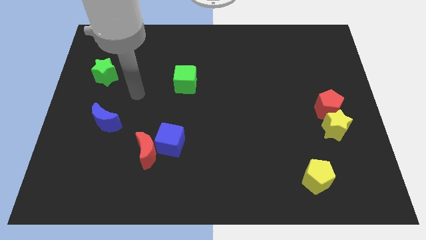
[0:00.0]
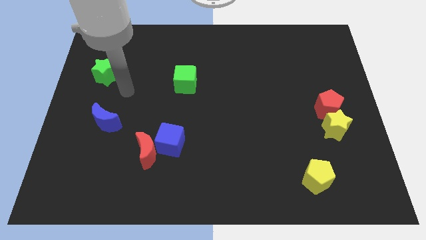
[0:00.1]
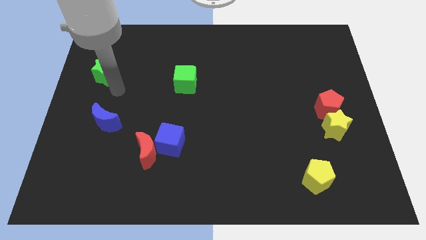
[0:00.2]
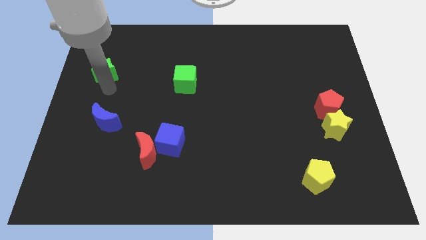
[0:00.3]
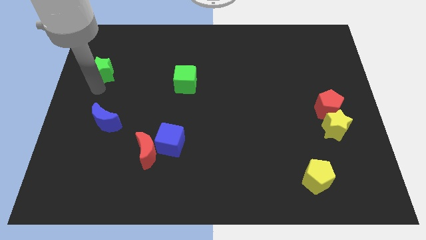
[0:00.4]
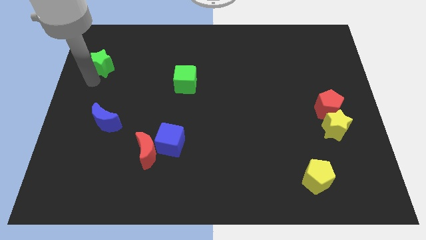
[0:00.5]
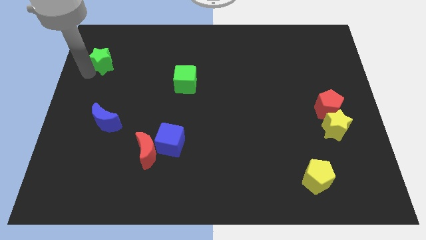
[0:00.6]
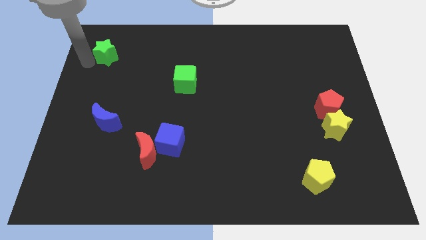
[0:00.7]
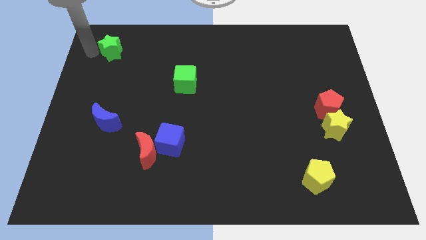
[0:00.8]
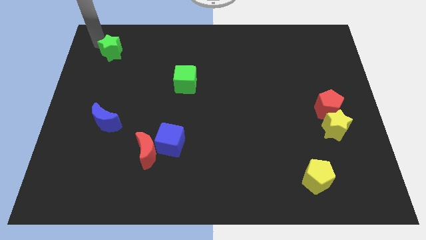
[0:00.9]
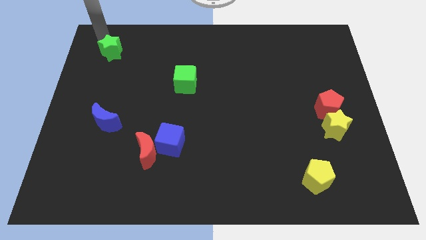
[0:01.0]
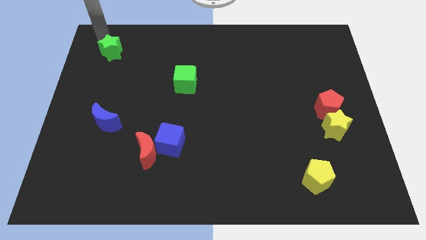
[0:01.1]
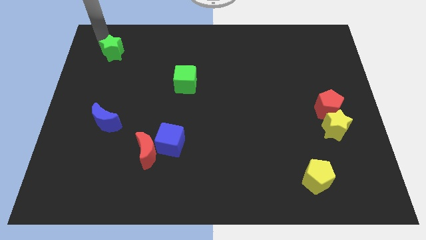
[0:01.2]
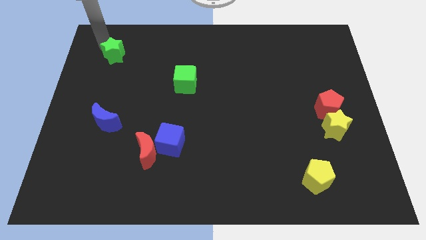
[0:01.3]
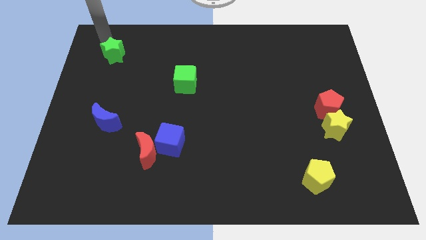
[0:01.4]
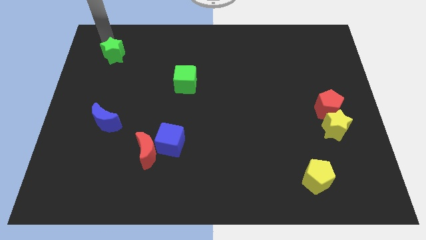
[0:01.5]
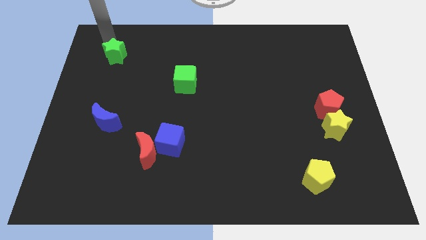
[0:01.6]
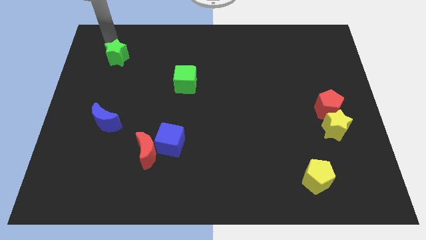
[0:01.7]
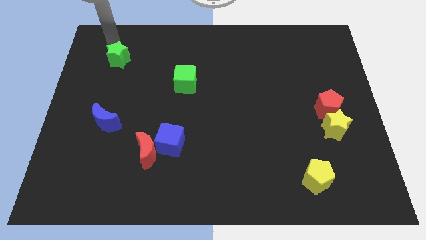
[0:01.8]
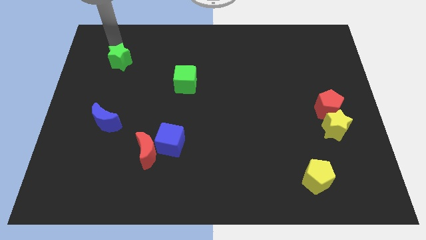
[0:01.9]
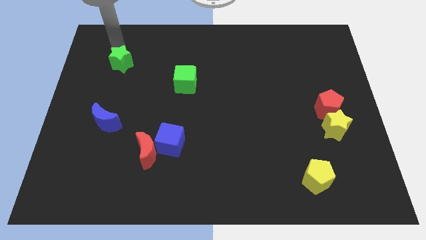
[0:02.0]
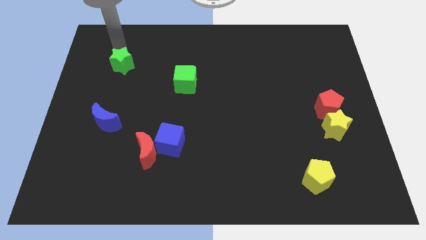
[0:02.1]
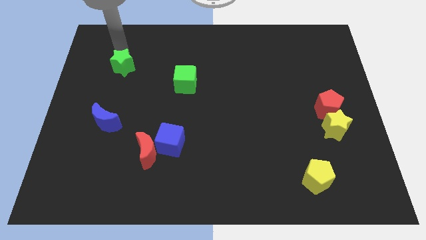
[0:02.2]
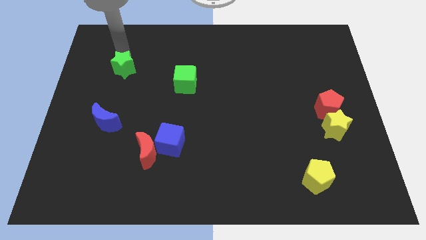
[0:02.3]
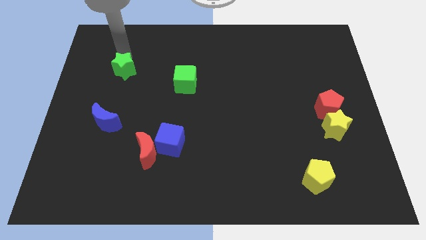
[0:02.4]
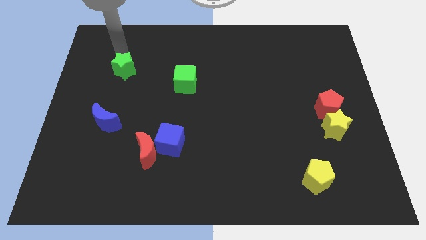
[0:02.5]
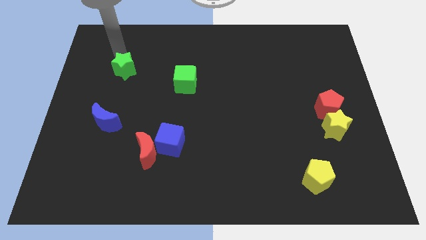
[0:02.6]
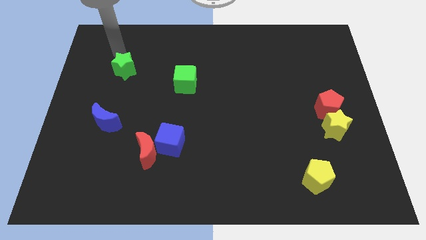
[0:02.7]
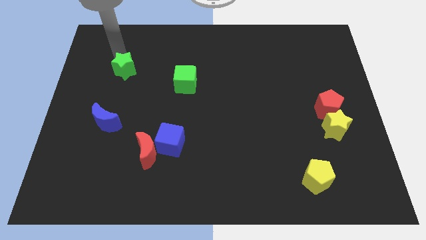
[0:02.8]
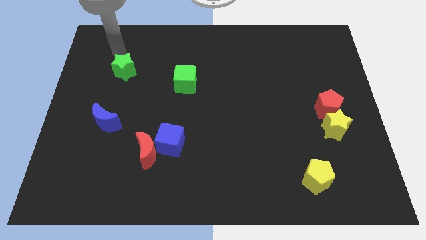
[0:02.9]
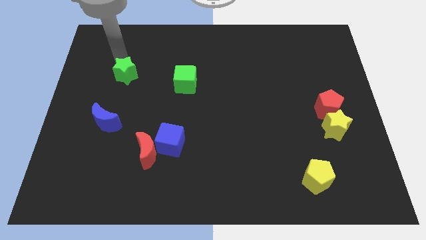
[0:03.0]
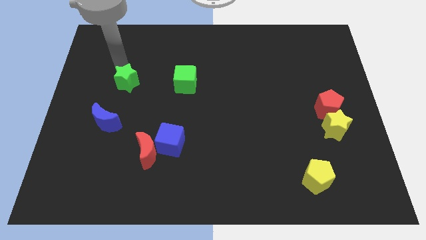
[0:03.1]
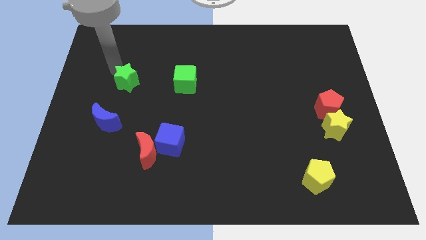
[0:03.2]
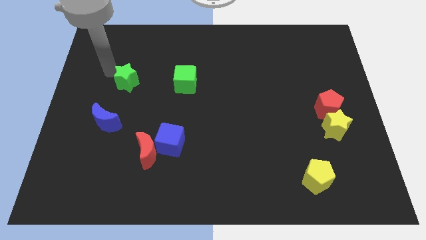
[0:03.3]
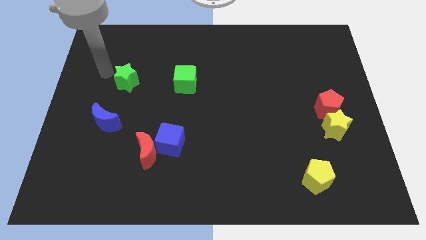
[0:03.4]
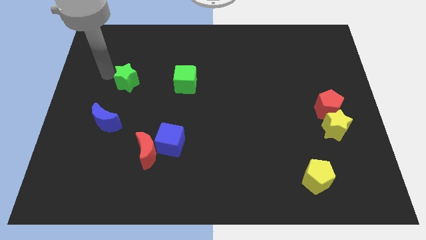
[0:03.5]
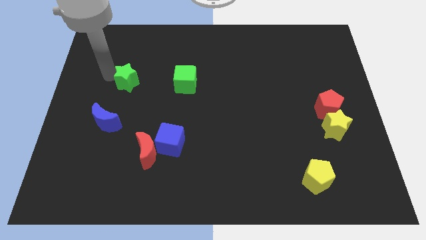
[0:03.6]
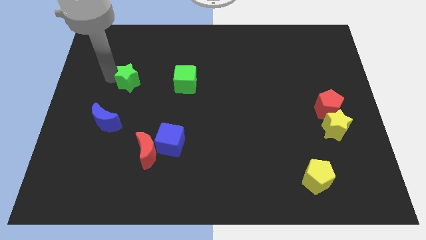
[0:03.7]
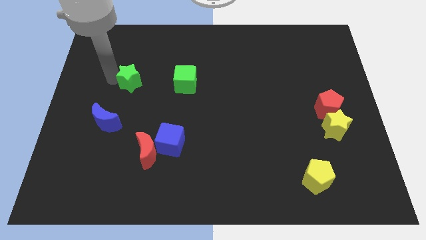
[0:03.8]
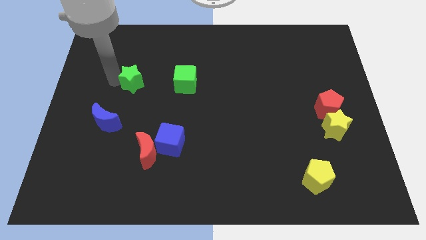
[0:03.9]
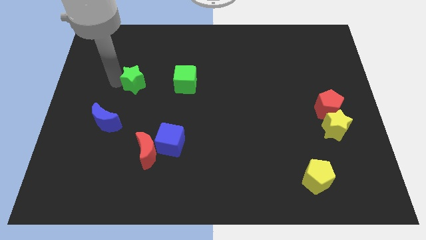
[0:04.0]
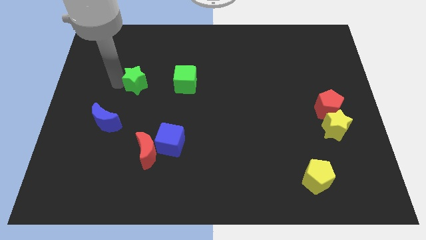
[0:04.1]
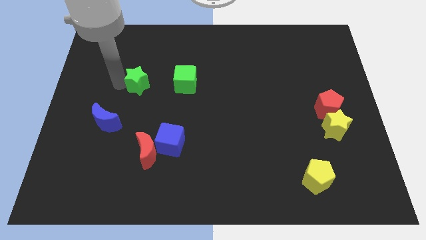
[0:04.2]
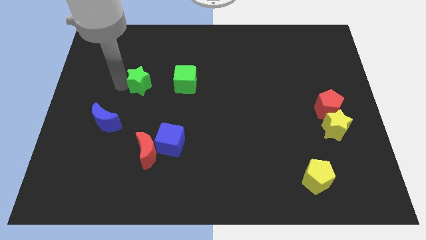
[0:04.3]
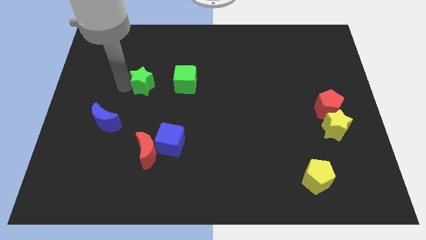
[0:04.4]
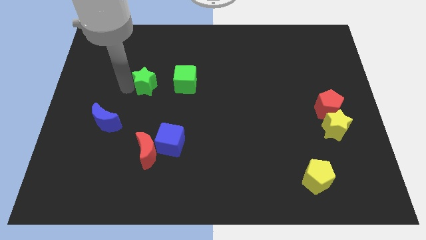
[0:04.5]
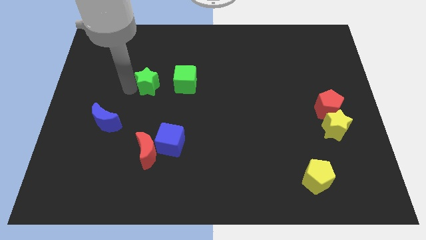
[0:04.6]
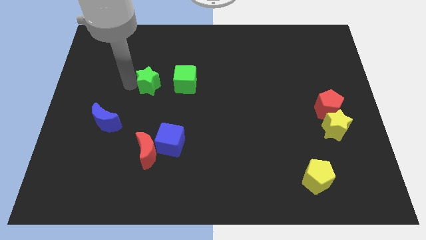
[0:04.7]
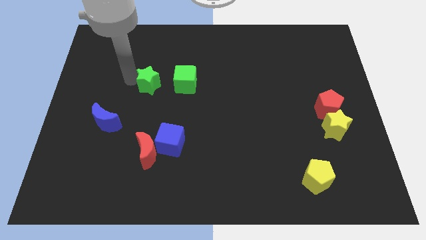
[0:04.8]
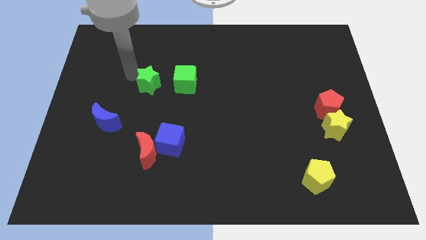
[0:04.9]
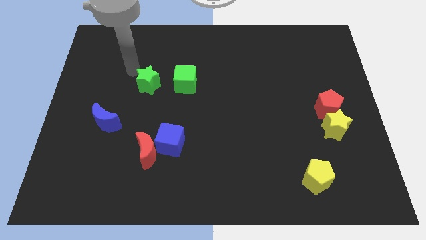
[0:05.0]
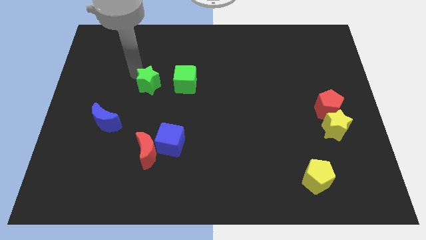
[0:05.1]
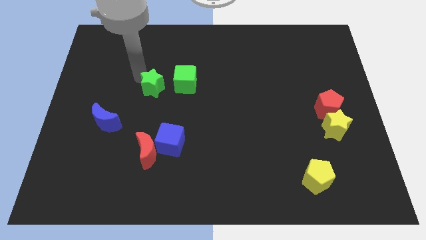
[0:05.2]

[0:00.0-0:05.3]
move the green star to the bottom left side of the green cube

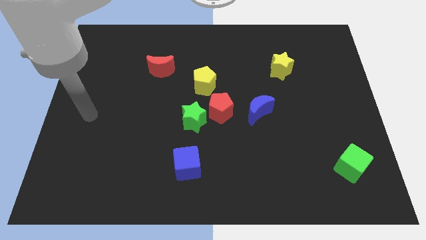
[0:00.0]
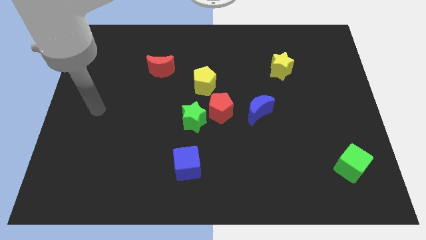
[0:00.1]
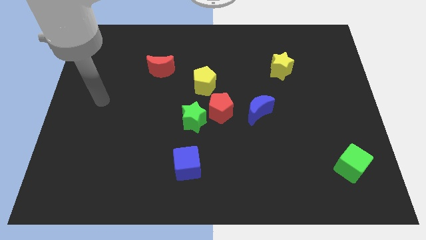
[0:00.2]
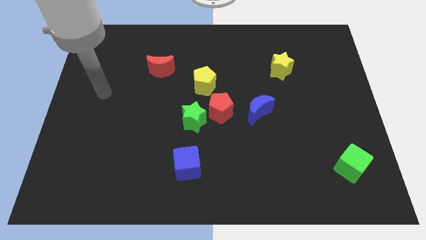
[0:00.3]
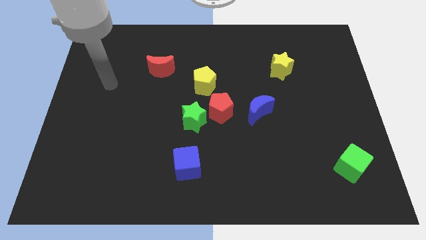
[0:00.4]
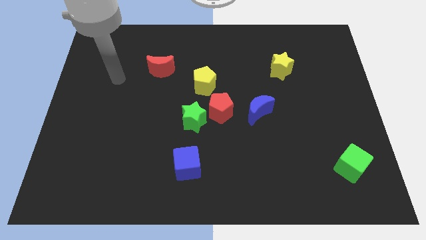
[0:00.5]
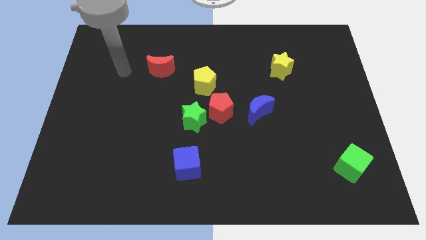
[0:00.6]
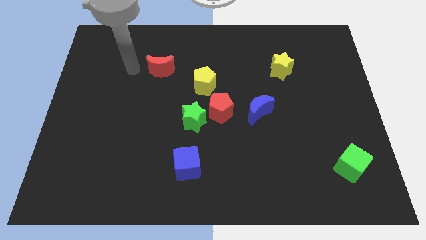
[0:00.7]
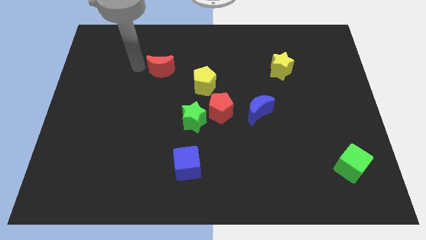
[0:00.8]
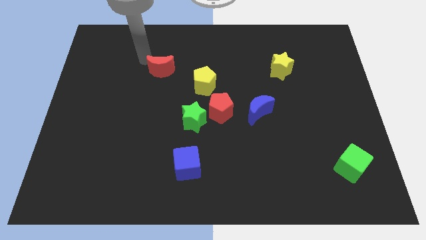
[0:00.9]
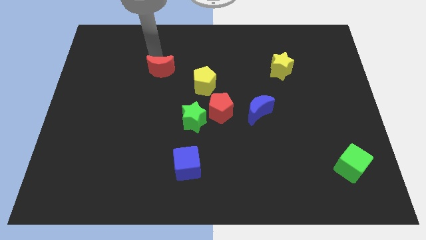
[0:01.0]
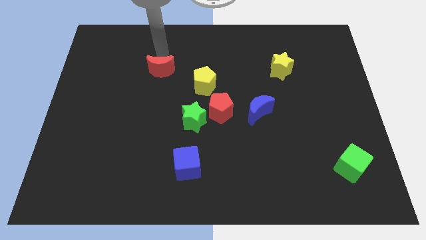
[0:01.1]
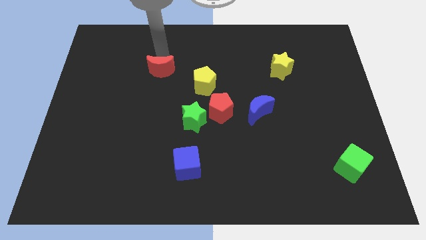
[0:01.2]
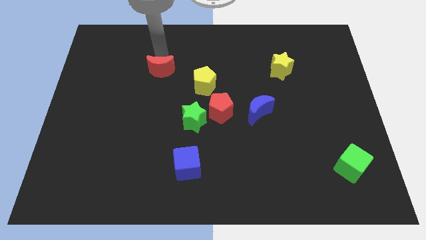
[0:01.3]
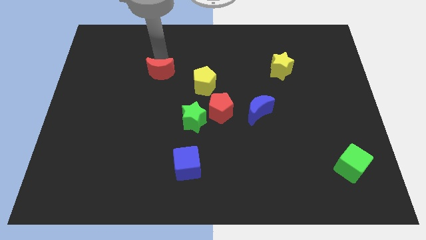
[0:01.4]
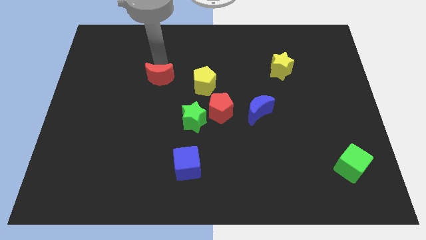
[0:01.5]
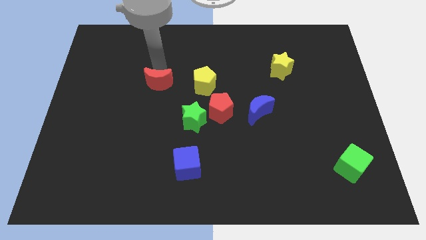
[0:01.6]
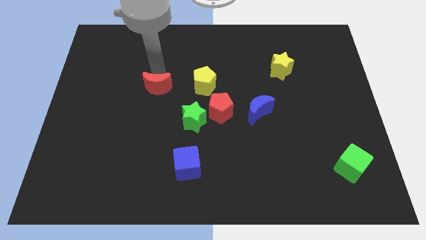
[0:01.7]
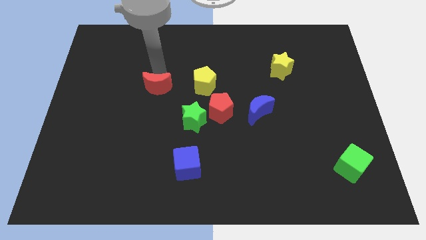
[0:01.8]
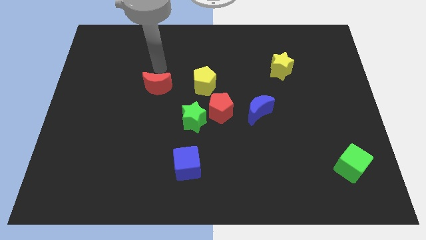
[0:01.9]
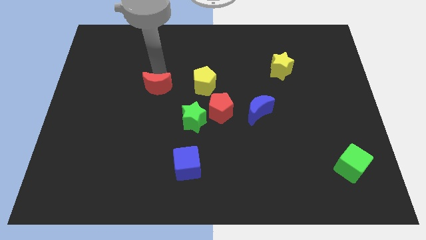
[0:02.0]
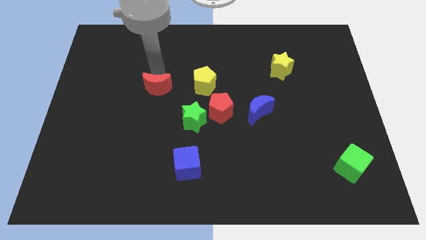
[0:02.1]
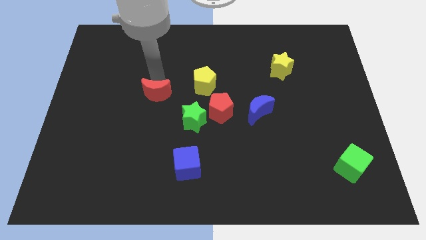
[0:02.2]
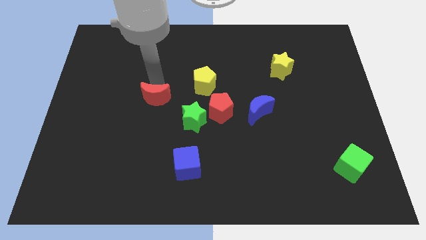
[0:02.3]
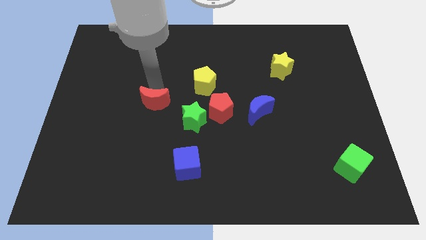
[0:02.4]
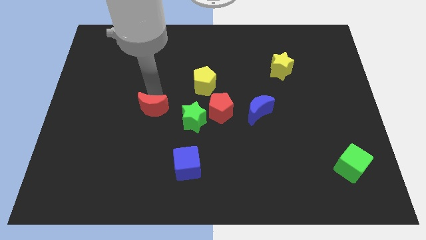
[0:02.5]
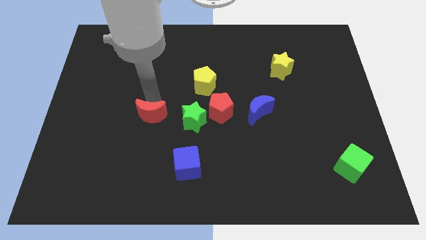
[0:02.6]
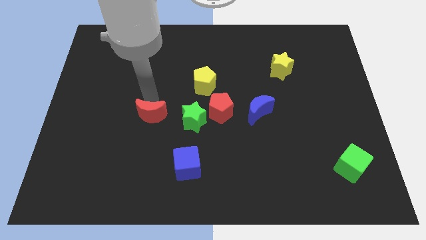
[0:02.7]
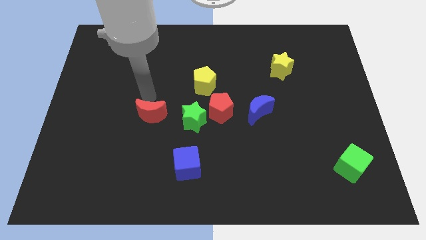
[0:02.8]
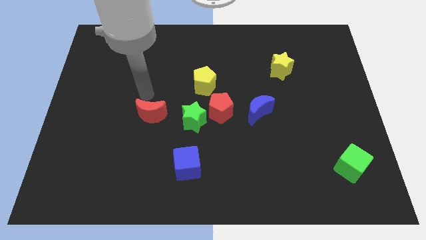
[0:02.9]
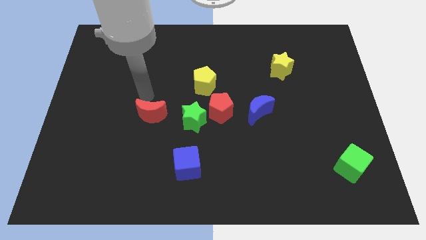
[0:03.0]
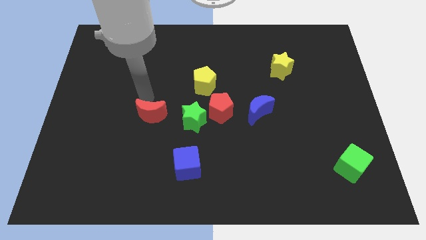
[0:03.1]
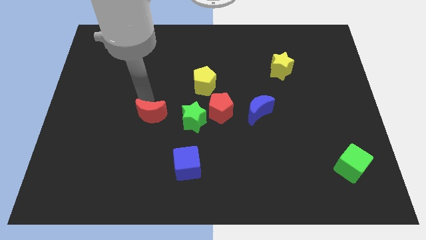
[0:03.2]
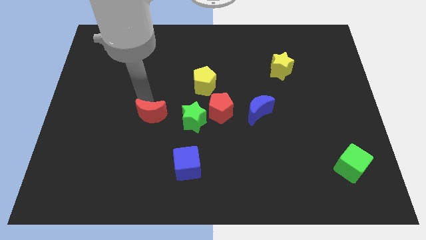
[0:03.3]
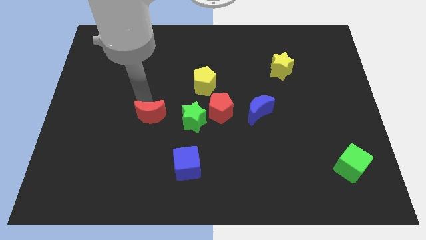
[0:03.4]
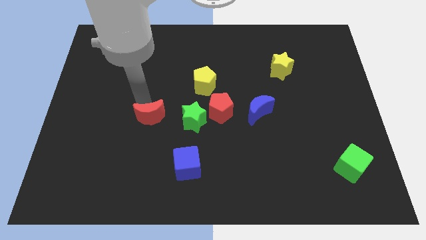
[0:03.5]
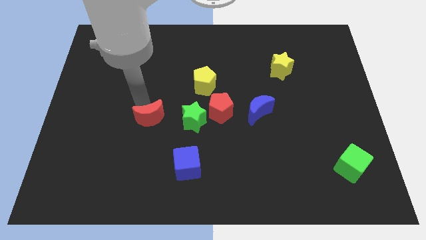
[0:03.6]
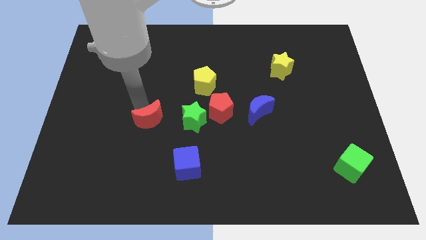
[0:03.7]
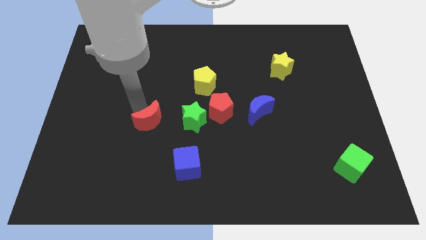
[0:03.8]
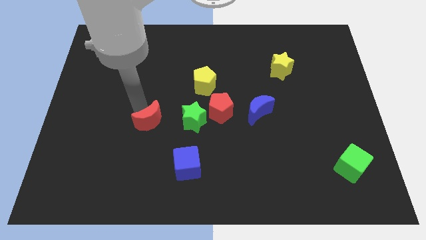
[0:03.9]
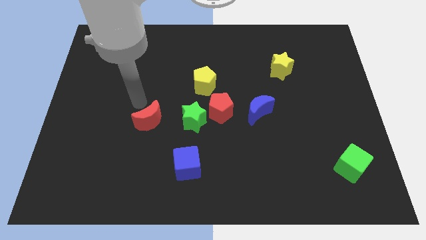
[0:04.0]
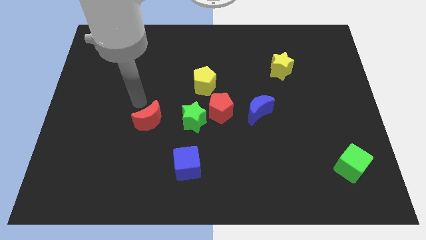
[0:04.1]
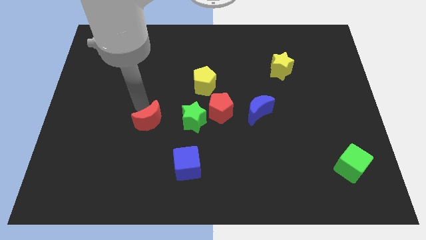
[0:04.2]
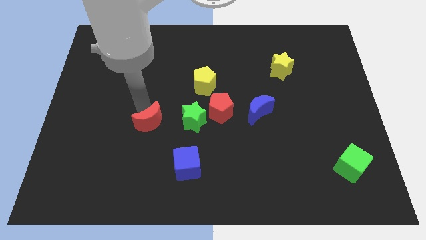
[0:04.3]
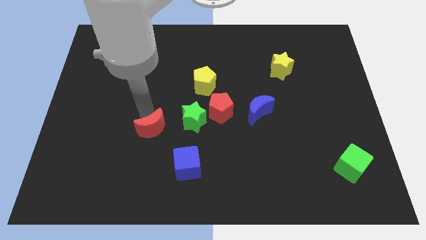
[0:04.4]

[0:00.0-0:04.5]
move the red moon to the top left side of the blue cube
